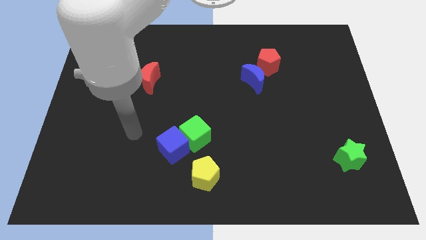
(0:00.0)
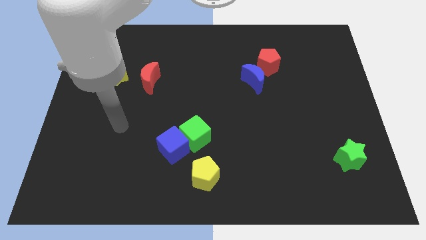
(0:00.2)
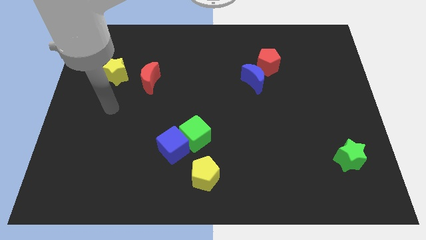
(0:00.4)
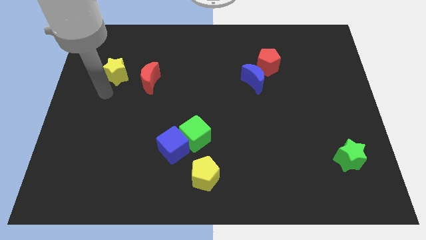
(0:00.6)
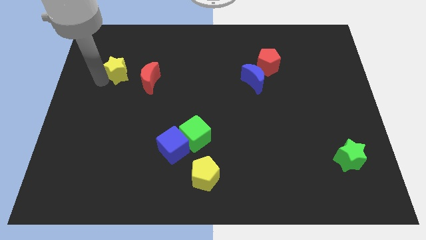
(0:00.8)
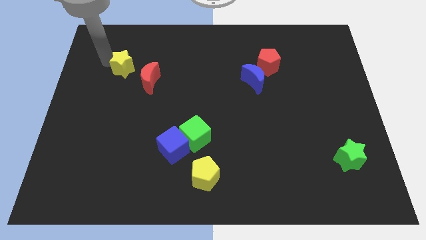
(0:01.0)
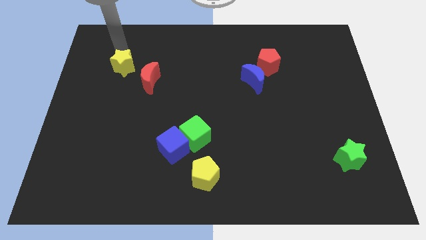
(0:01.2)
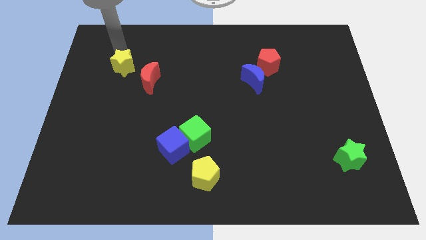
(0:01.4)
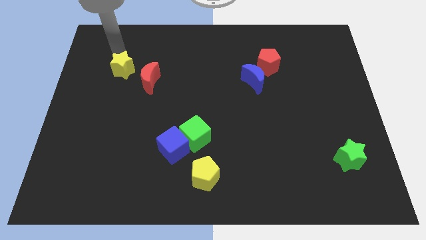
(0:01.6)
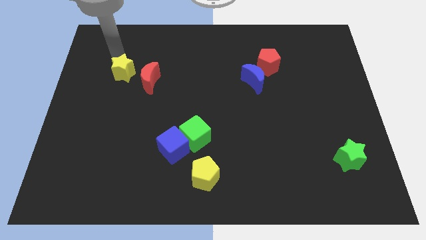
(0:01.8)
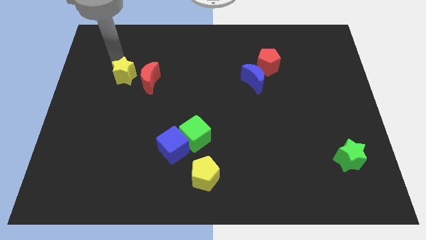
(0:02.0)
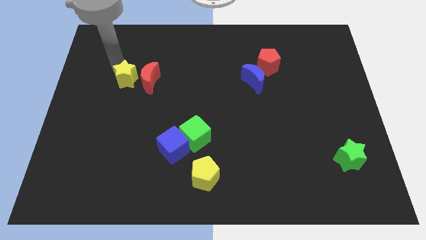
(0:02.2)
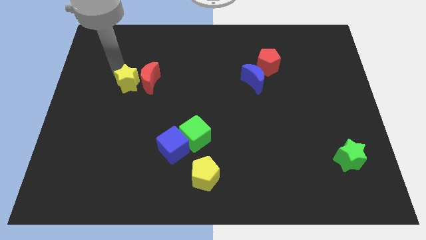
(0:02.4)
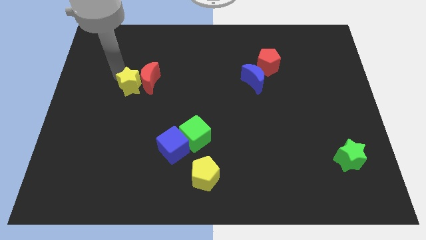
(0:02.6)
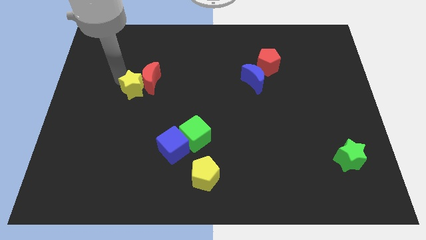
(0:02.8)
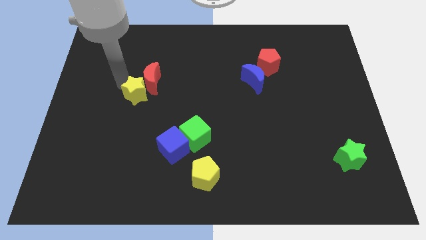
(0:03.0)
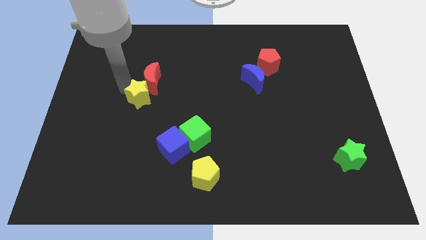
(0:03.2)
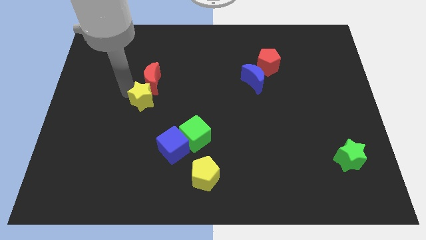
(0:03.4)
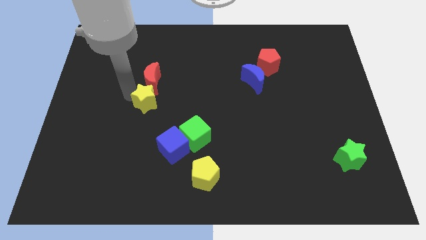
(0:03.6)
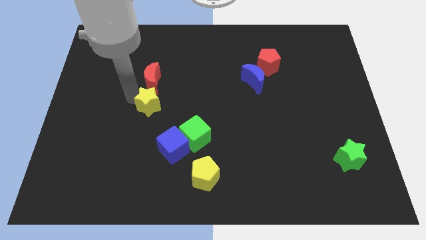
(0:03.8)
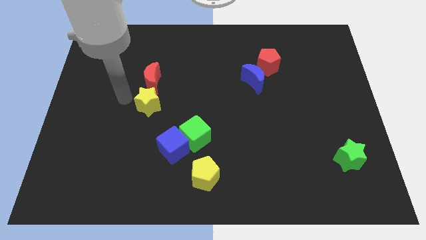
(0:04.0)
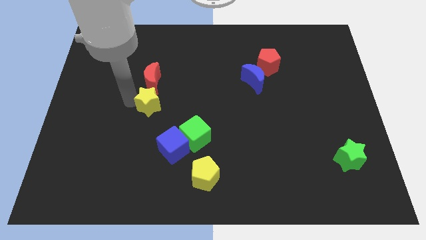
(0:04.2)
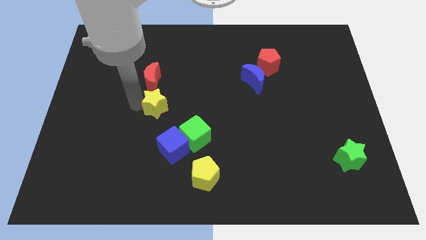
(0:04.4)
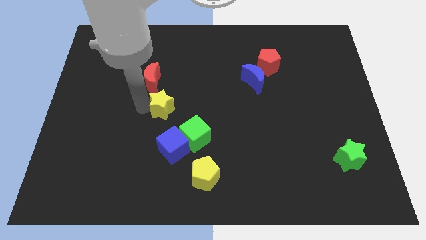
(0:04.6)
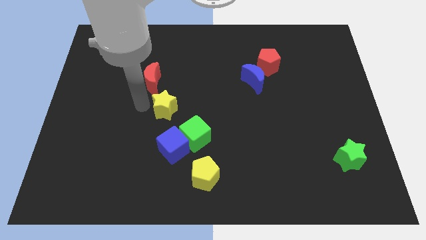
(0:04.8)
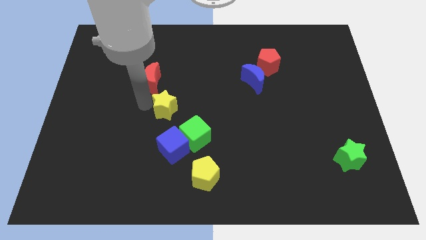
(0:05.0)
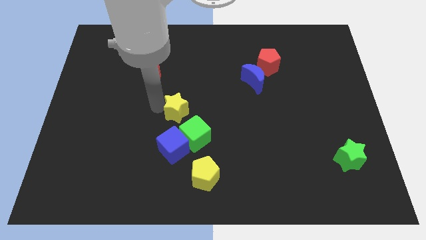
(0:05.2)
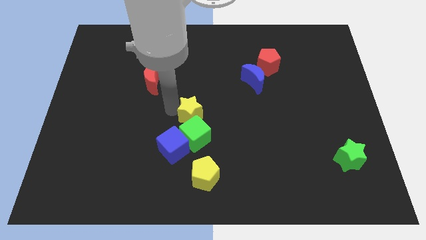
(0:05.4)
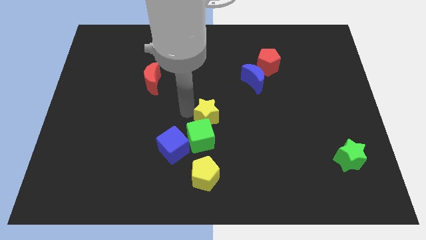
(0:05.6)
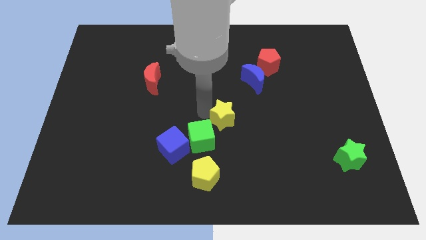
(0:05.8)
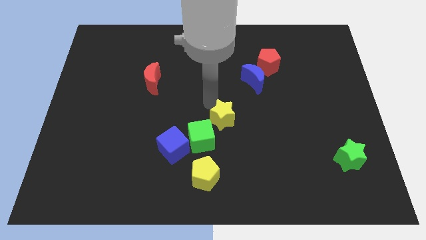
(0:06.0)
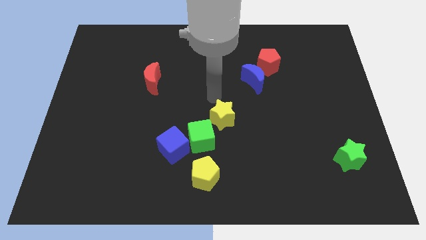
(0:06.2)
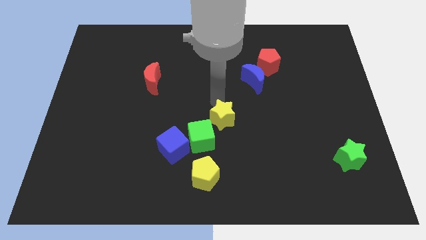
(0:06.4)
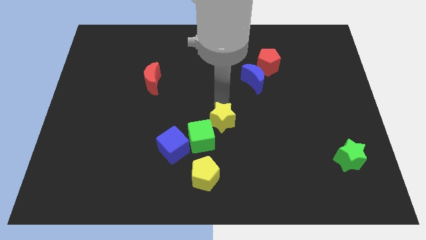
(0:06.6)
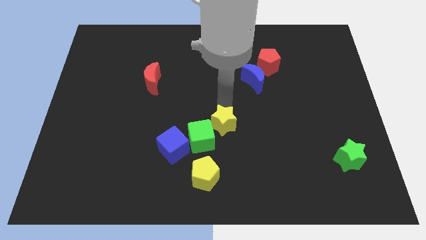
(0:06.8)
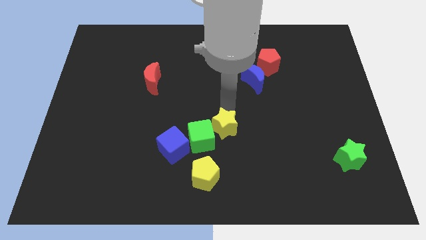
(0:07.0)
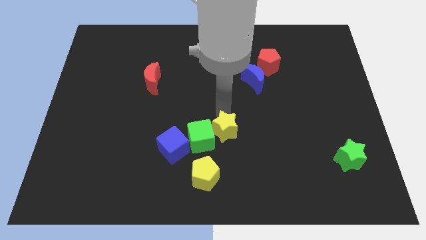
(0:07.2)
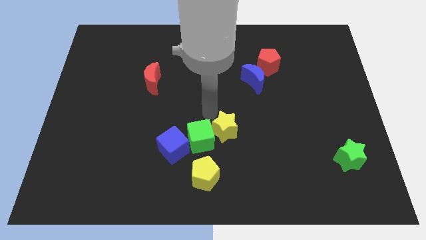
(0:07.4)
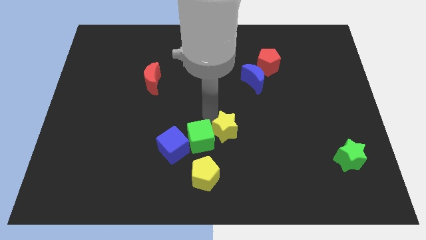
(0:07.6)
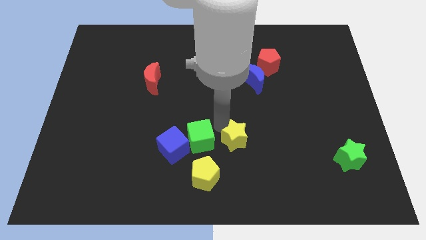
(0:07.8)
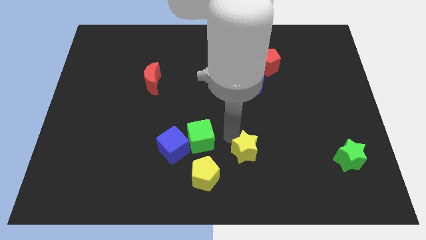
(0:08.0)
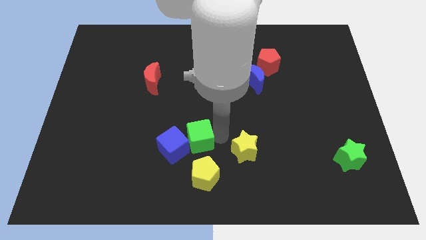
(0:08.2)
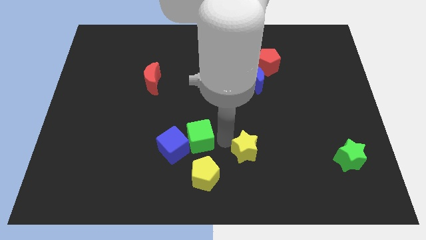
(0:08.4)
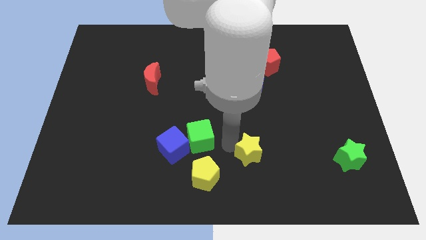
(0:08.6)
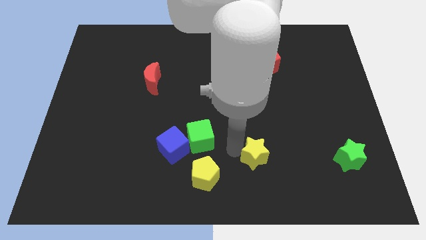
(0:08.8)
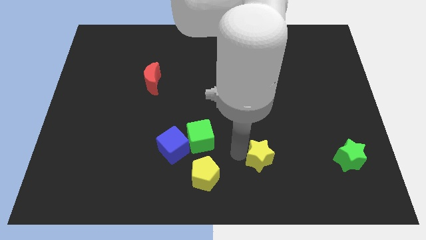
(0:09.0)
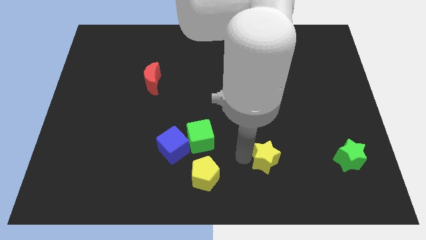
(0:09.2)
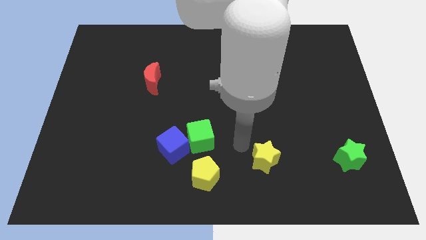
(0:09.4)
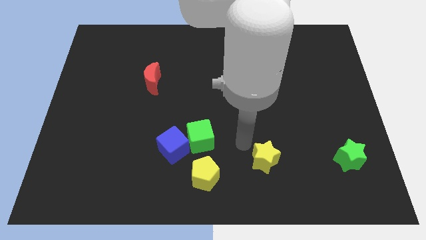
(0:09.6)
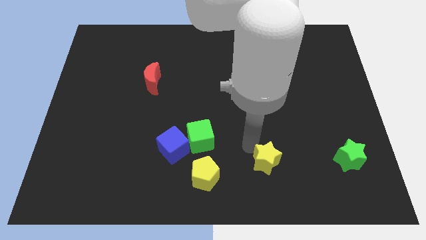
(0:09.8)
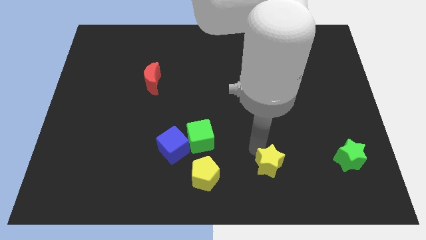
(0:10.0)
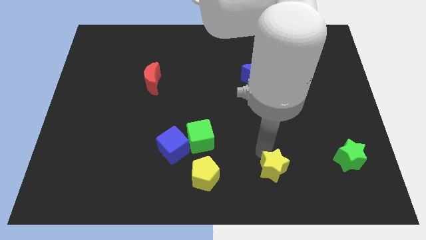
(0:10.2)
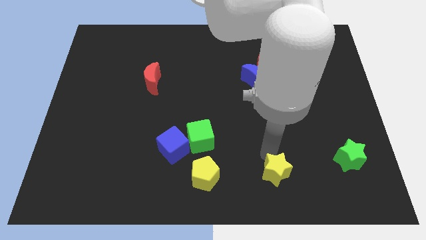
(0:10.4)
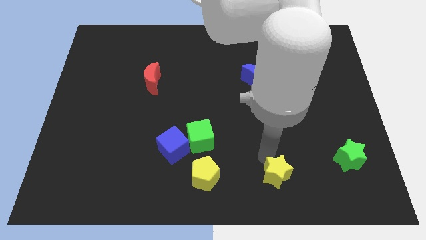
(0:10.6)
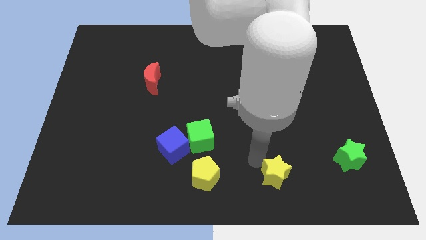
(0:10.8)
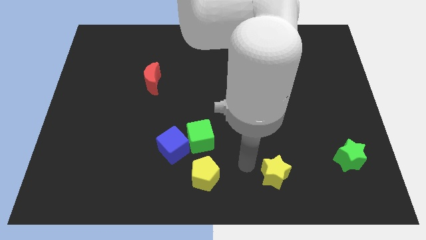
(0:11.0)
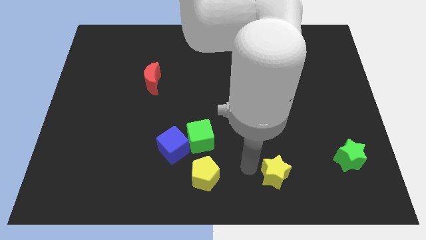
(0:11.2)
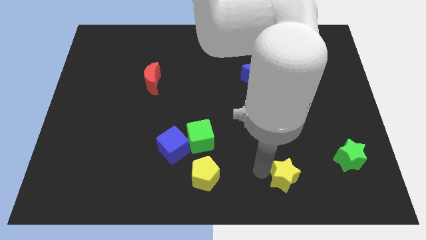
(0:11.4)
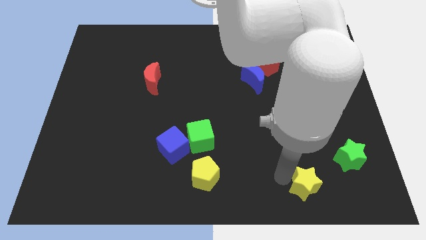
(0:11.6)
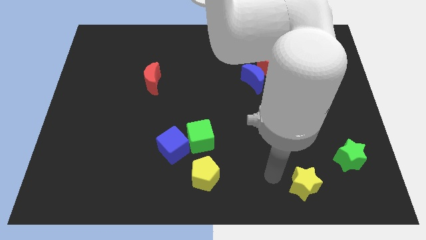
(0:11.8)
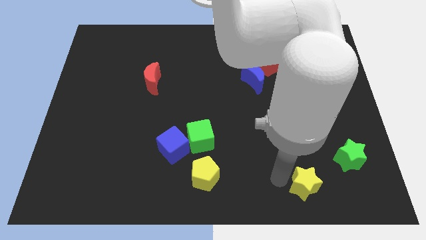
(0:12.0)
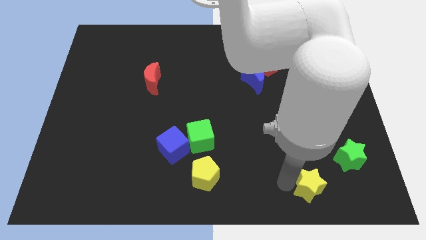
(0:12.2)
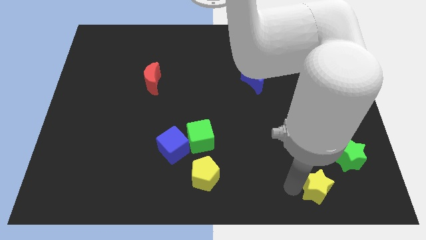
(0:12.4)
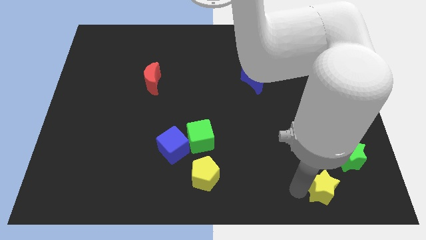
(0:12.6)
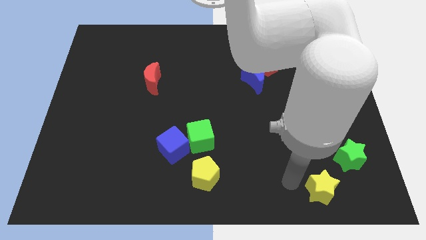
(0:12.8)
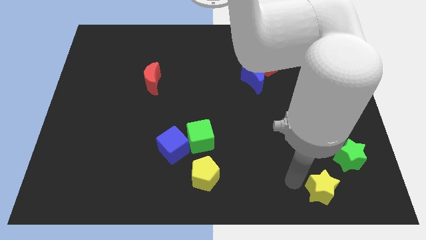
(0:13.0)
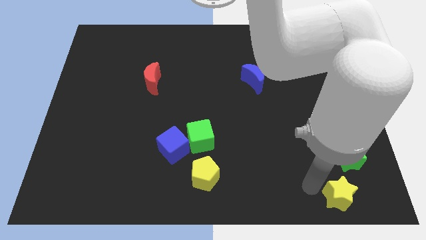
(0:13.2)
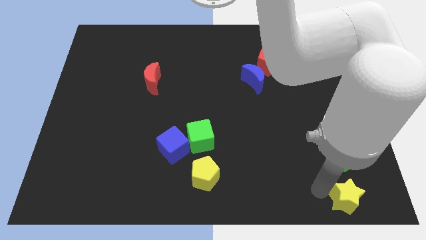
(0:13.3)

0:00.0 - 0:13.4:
put the yellow star to the bottom right

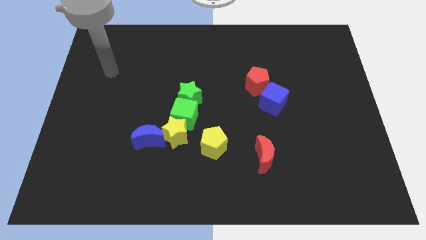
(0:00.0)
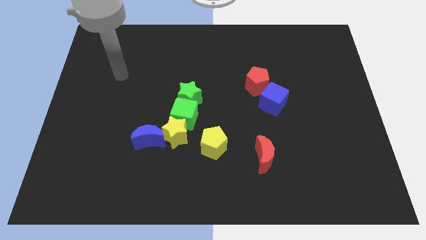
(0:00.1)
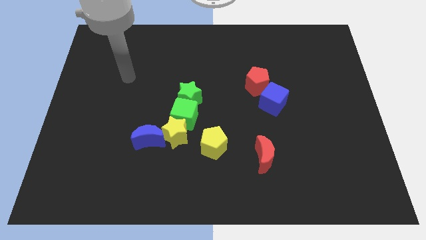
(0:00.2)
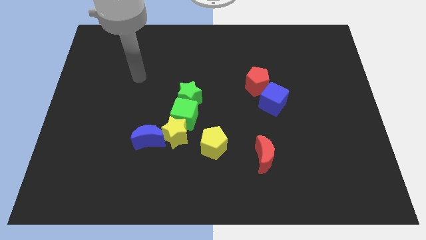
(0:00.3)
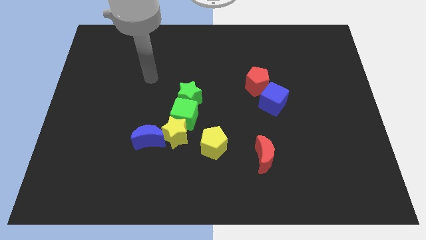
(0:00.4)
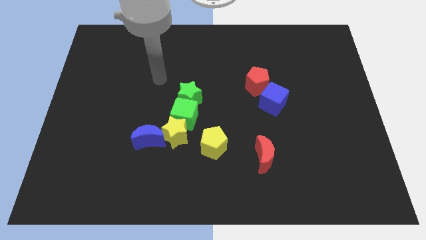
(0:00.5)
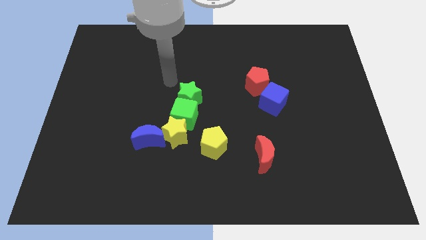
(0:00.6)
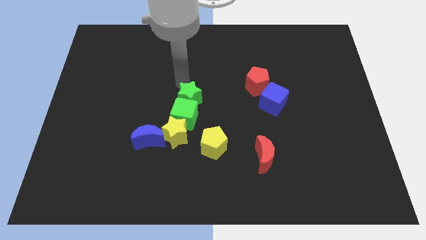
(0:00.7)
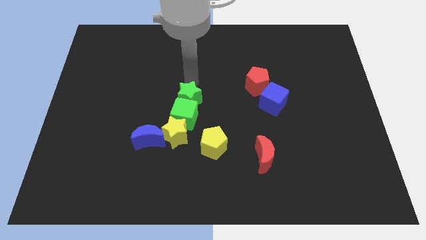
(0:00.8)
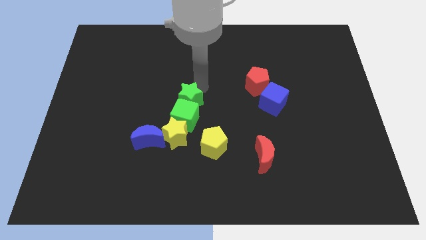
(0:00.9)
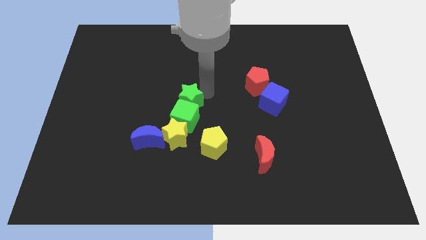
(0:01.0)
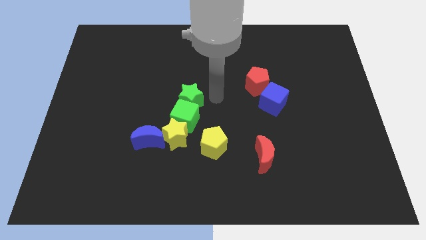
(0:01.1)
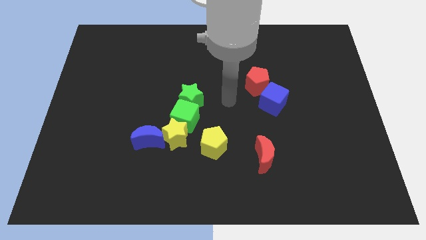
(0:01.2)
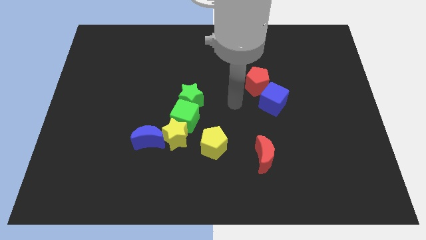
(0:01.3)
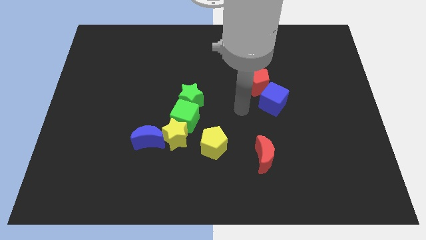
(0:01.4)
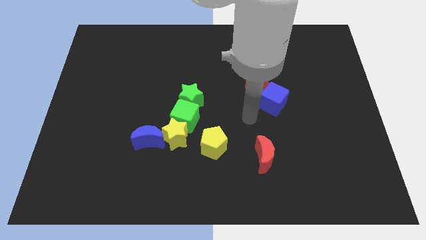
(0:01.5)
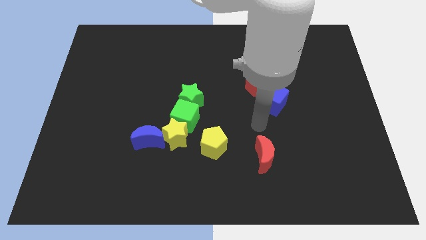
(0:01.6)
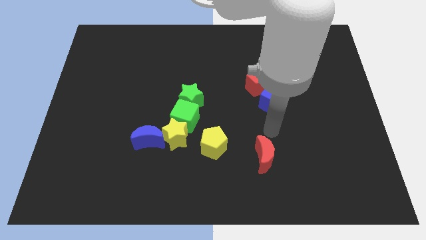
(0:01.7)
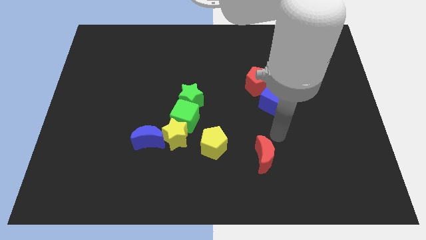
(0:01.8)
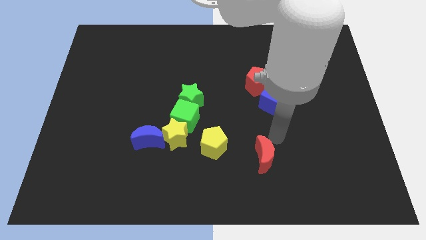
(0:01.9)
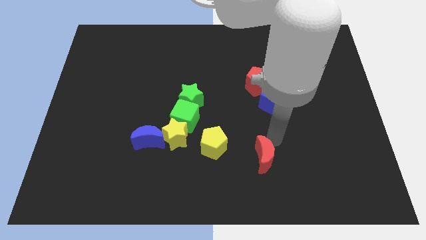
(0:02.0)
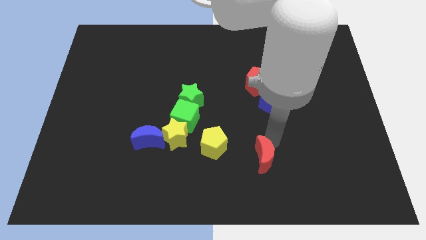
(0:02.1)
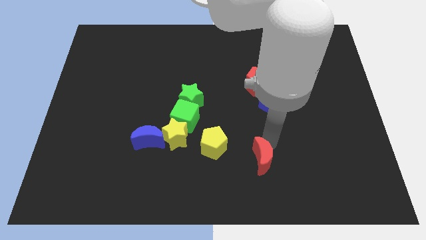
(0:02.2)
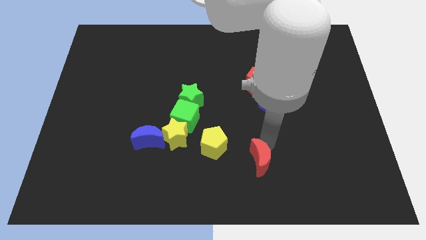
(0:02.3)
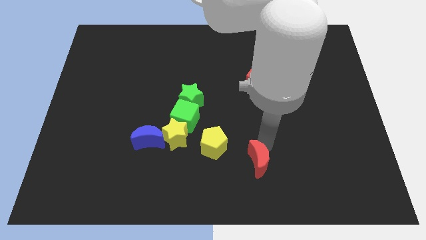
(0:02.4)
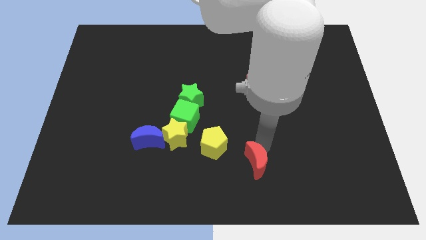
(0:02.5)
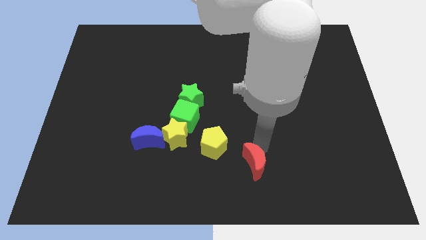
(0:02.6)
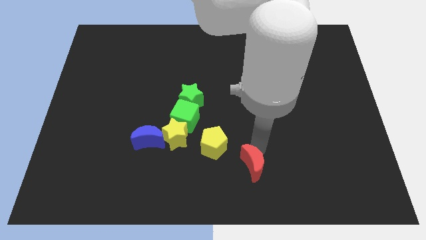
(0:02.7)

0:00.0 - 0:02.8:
put the red moon to the bottom side
